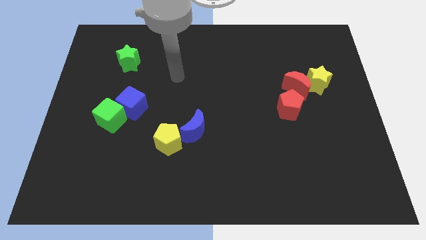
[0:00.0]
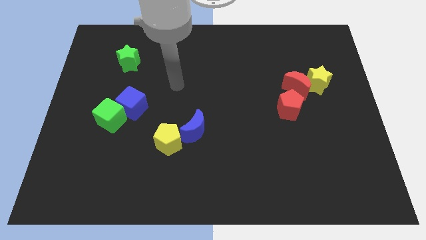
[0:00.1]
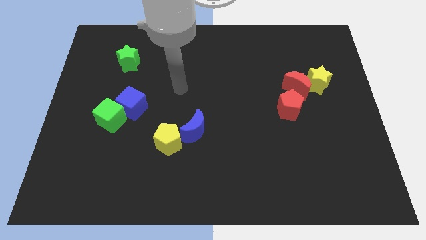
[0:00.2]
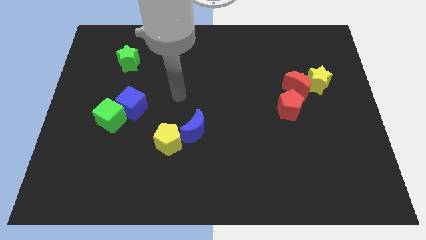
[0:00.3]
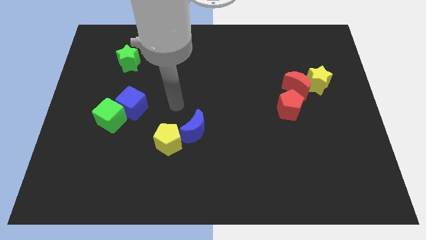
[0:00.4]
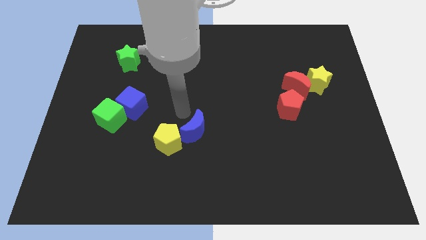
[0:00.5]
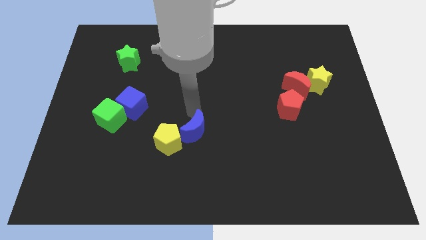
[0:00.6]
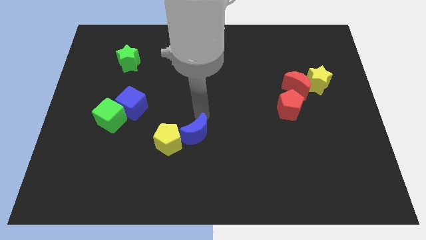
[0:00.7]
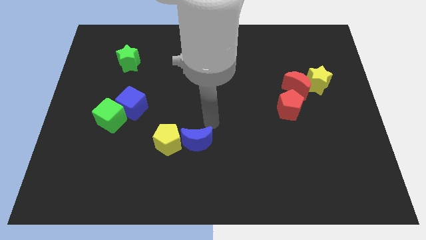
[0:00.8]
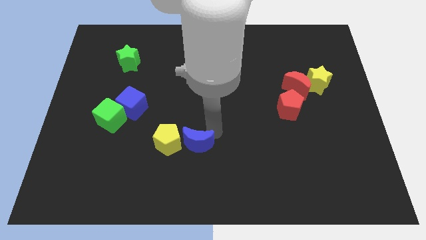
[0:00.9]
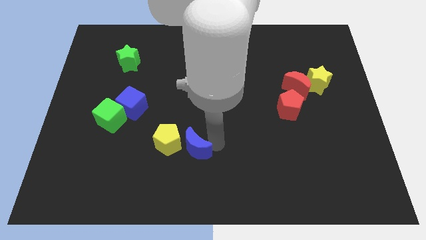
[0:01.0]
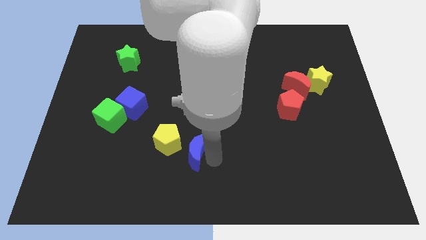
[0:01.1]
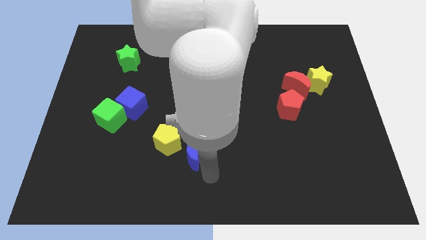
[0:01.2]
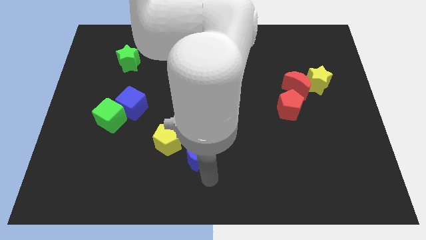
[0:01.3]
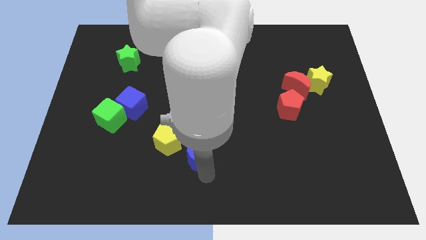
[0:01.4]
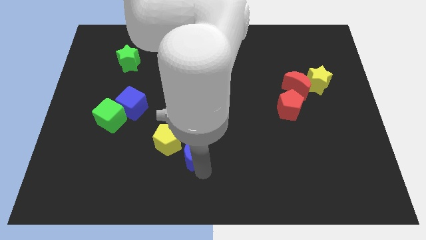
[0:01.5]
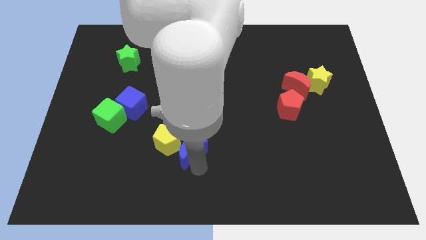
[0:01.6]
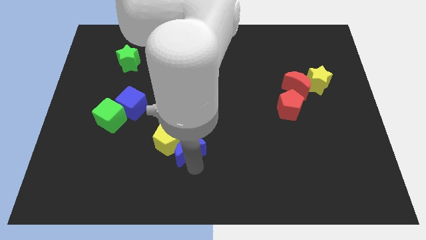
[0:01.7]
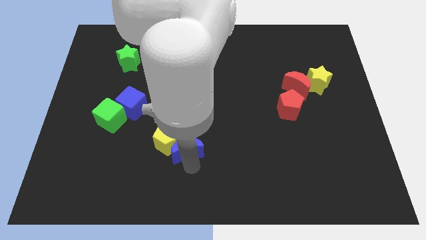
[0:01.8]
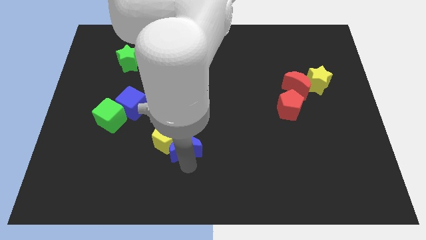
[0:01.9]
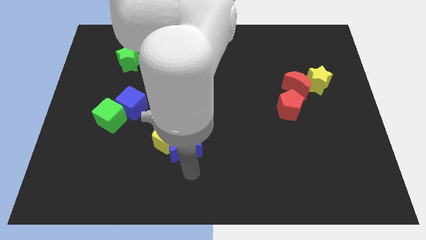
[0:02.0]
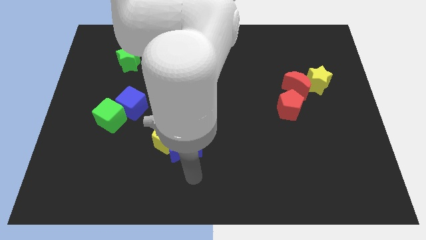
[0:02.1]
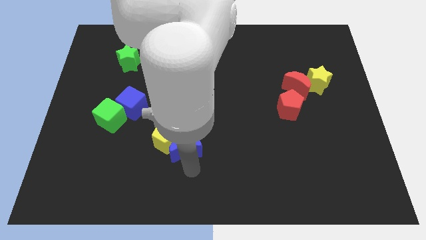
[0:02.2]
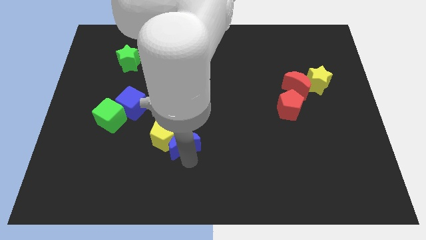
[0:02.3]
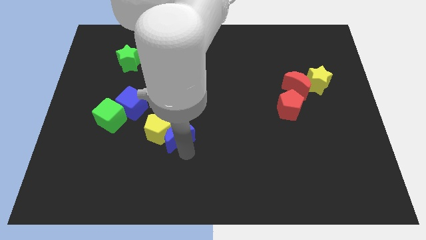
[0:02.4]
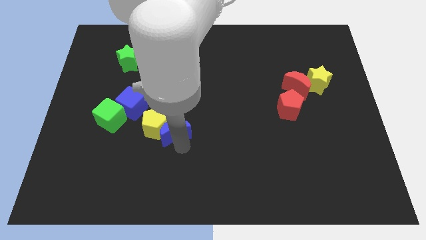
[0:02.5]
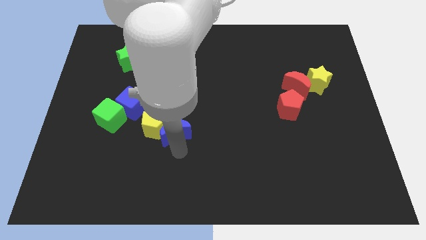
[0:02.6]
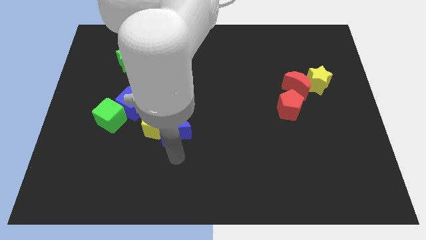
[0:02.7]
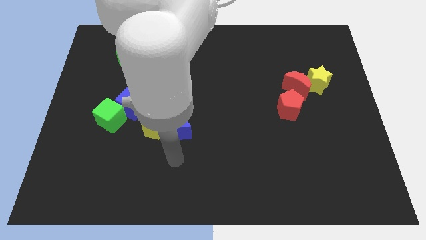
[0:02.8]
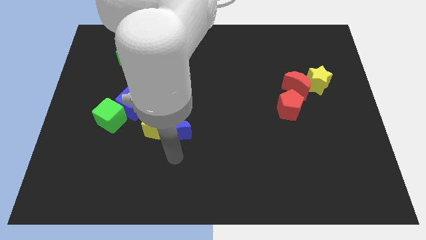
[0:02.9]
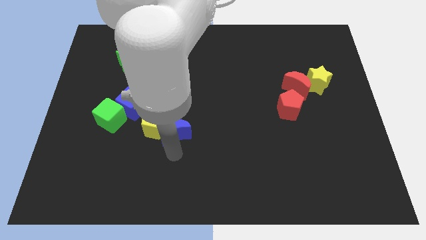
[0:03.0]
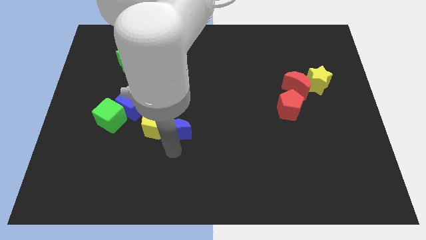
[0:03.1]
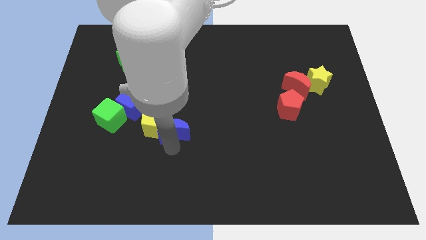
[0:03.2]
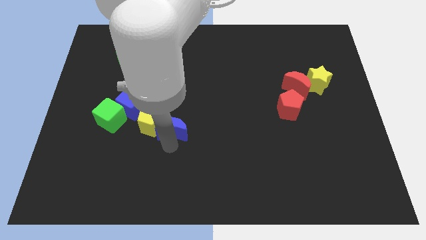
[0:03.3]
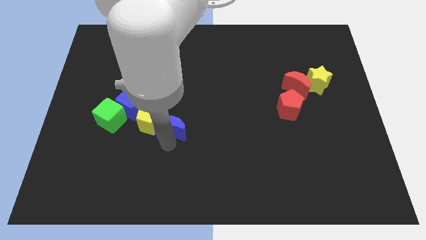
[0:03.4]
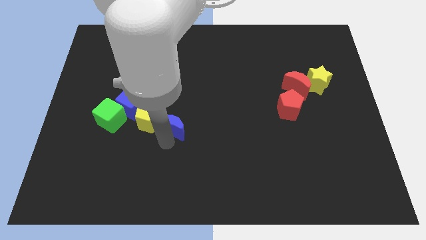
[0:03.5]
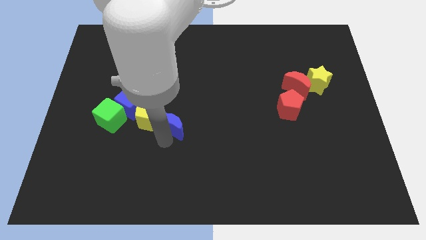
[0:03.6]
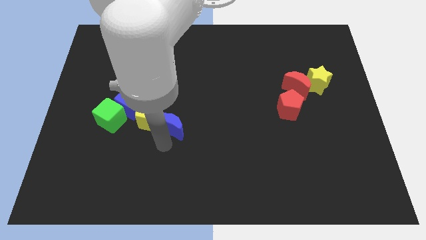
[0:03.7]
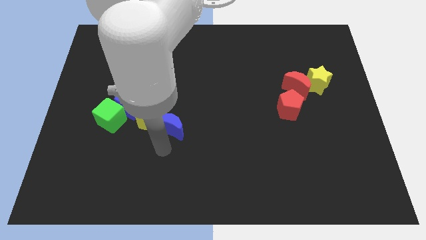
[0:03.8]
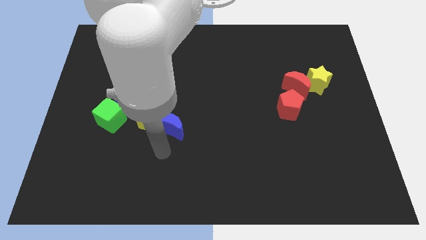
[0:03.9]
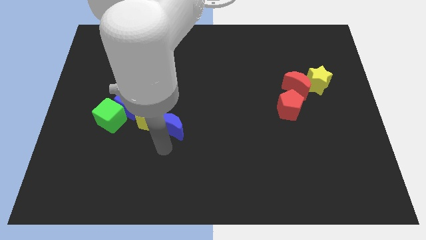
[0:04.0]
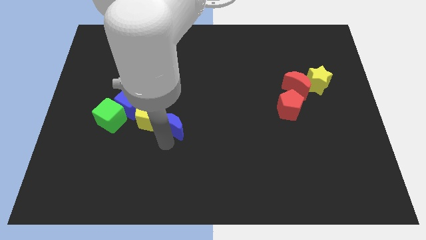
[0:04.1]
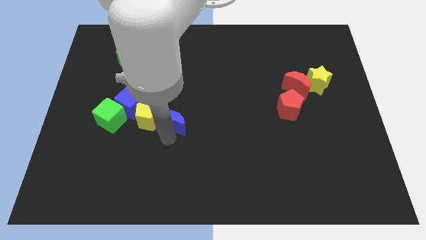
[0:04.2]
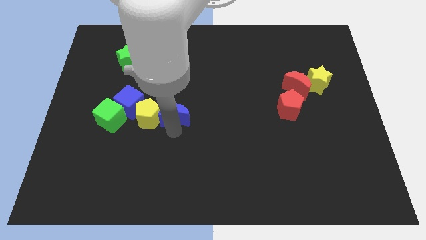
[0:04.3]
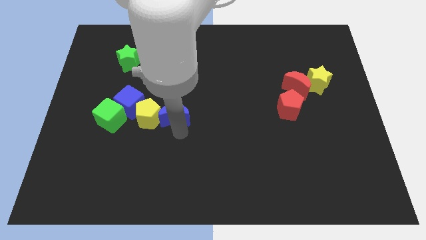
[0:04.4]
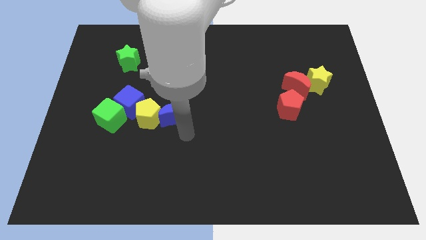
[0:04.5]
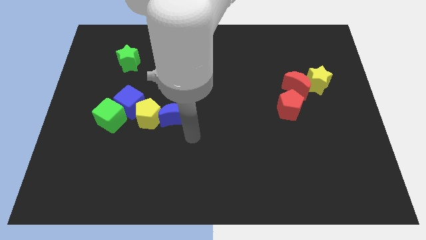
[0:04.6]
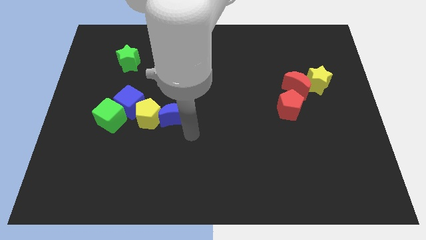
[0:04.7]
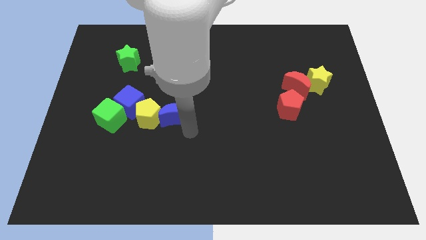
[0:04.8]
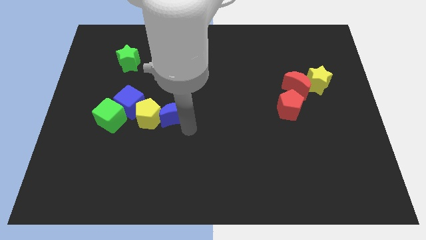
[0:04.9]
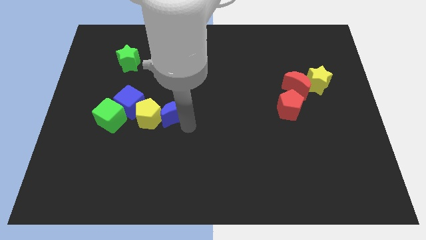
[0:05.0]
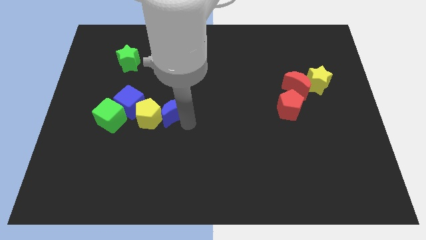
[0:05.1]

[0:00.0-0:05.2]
push the blue moon up and left somewhat

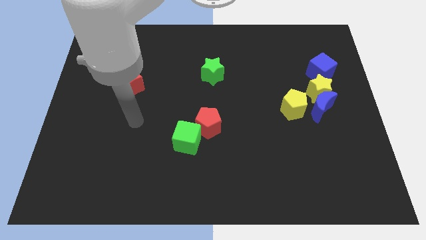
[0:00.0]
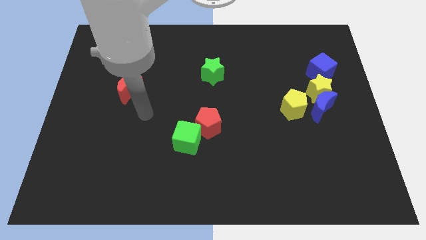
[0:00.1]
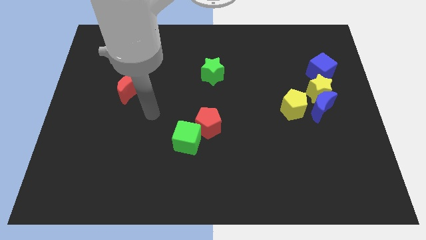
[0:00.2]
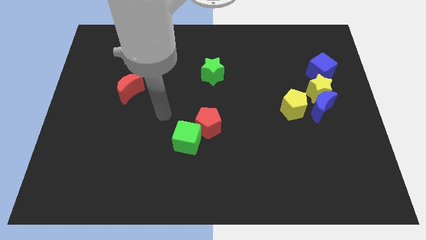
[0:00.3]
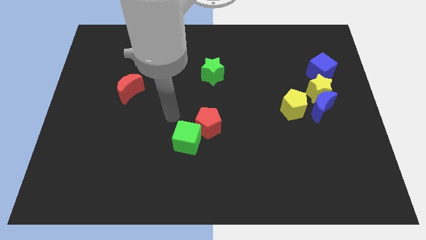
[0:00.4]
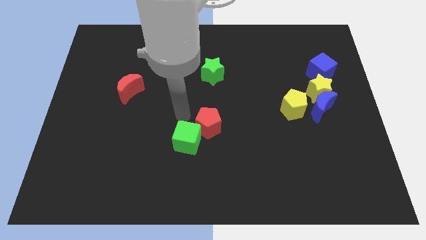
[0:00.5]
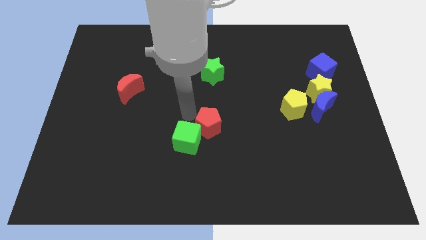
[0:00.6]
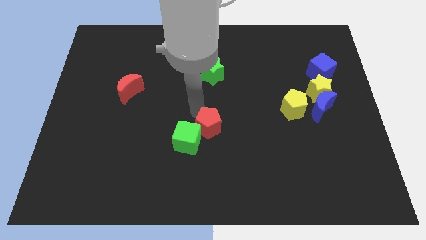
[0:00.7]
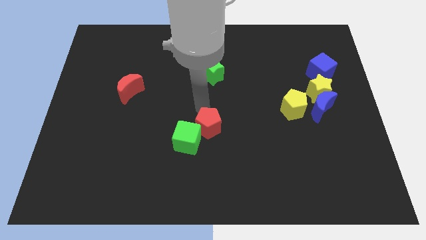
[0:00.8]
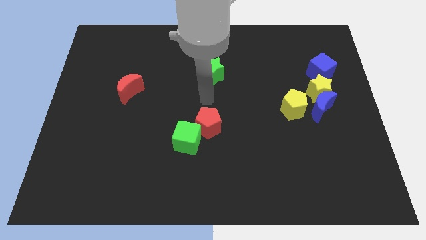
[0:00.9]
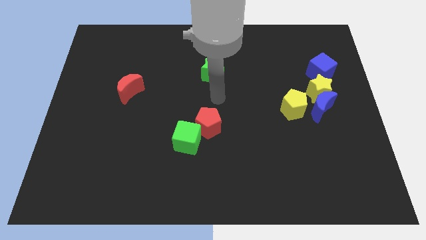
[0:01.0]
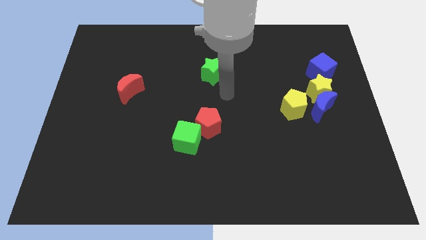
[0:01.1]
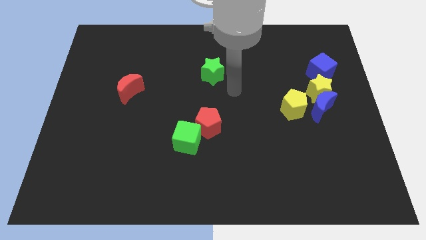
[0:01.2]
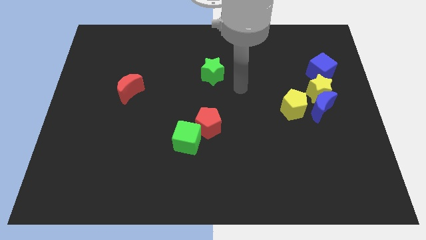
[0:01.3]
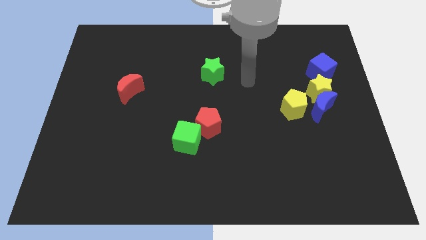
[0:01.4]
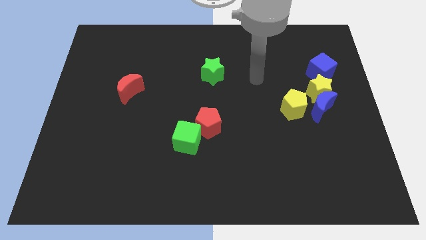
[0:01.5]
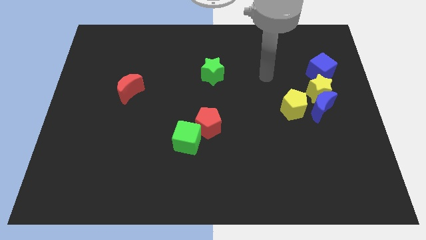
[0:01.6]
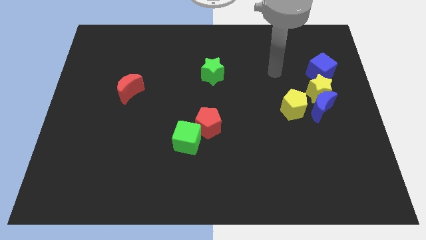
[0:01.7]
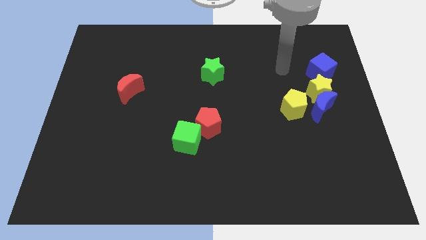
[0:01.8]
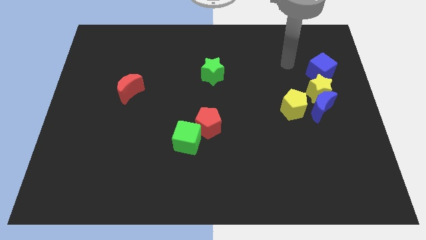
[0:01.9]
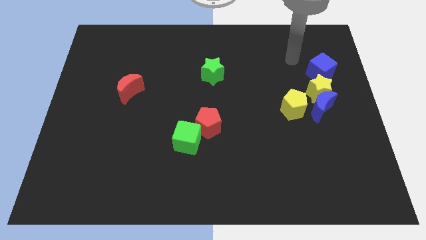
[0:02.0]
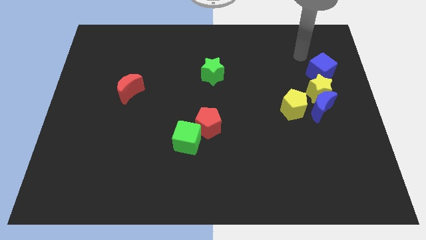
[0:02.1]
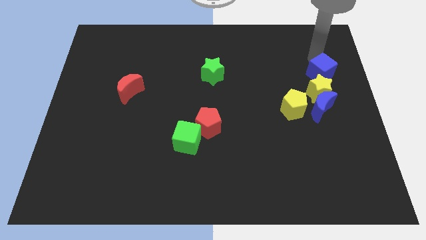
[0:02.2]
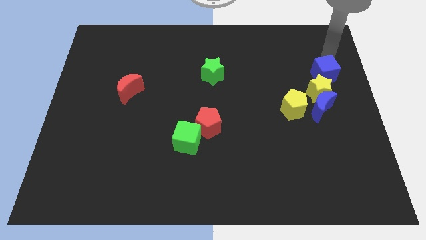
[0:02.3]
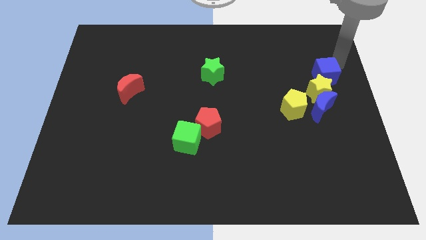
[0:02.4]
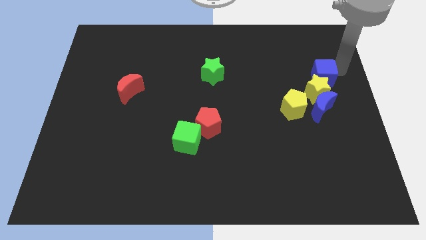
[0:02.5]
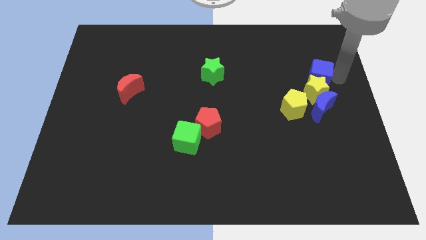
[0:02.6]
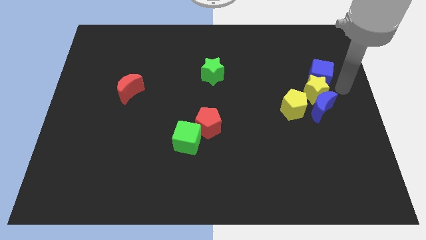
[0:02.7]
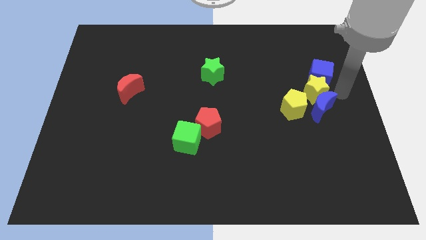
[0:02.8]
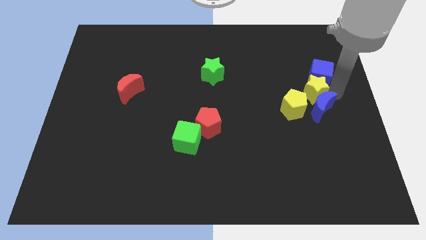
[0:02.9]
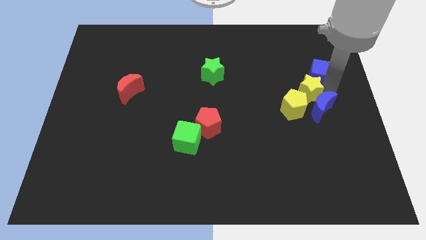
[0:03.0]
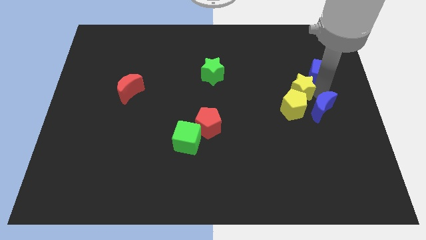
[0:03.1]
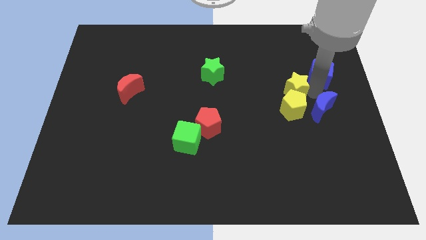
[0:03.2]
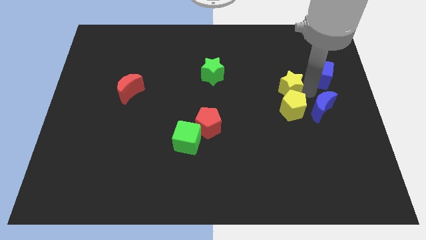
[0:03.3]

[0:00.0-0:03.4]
slide the yellow star a little bit left
